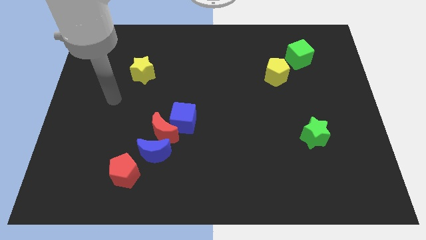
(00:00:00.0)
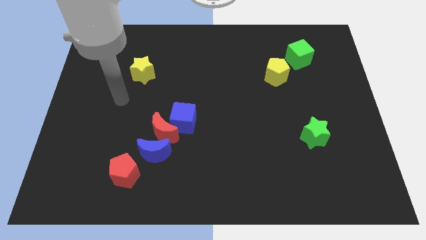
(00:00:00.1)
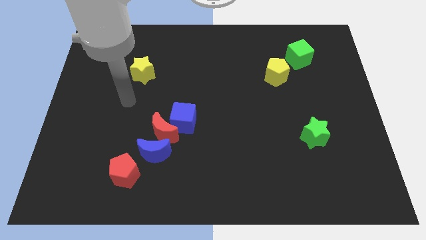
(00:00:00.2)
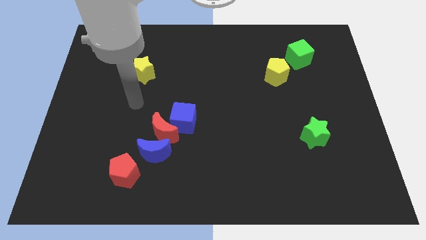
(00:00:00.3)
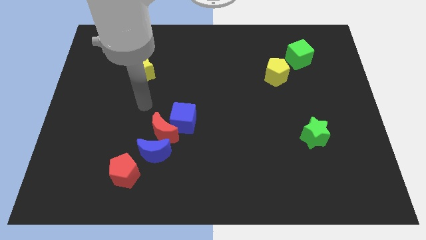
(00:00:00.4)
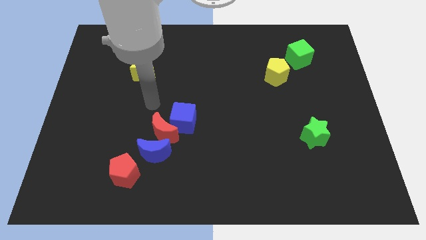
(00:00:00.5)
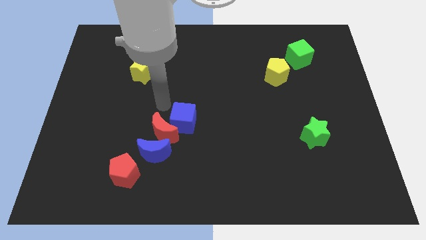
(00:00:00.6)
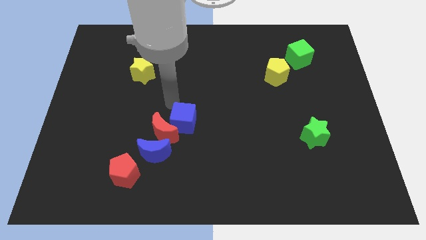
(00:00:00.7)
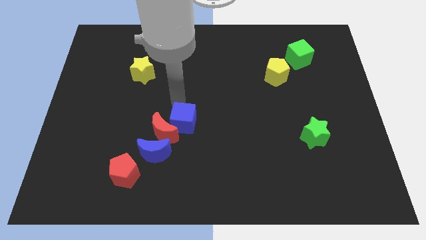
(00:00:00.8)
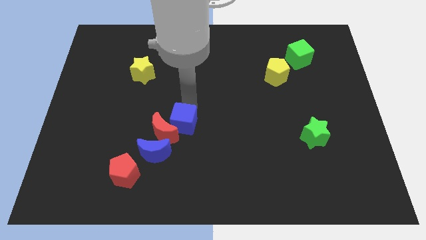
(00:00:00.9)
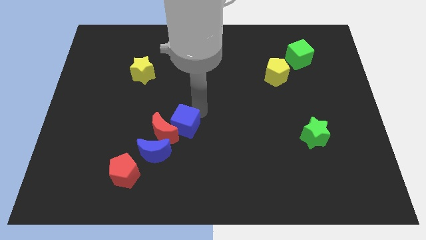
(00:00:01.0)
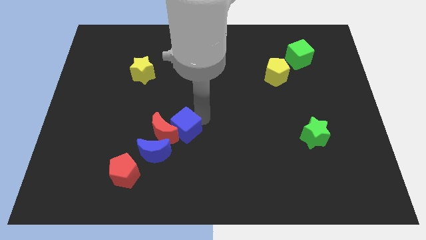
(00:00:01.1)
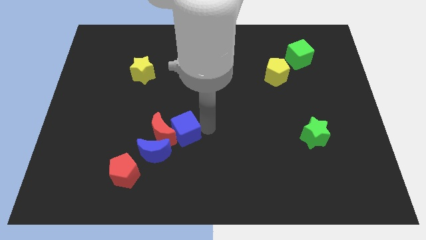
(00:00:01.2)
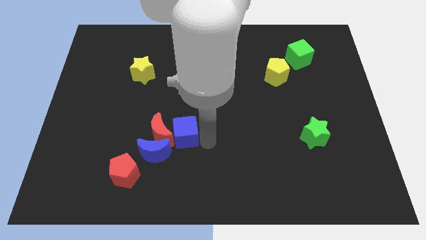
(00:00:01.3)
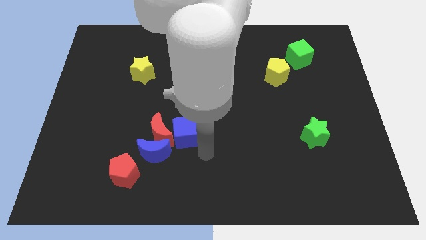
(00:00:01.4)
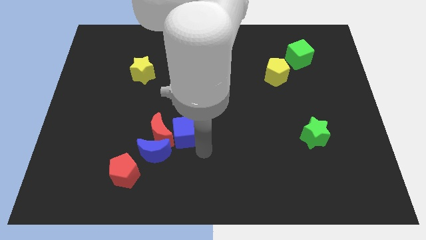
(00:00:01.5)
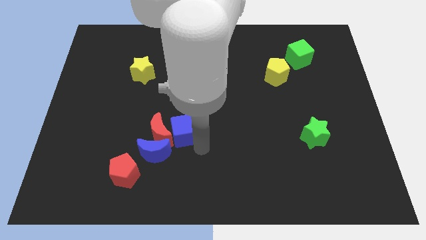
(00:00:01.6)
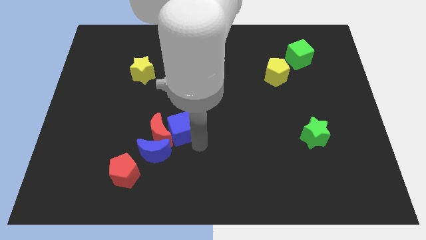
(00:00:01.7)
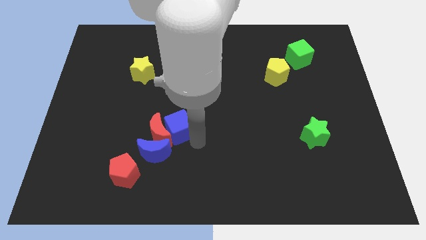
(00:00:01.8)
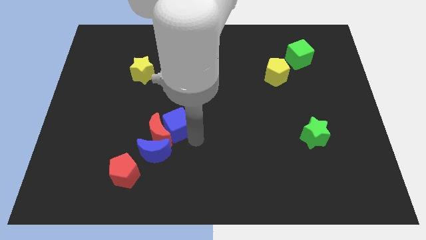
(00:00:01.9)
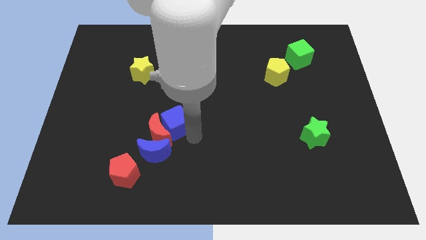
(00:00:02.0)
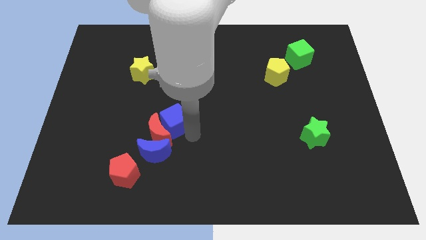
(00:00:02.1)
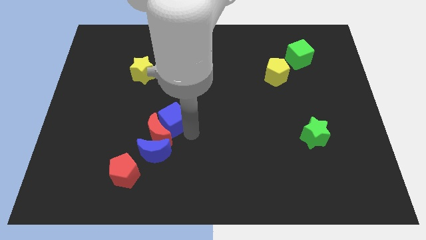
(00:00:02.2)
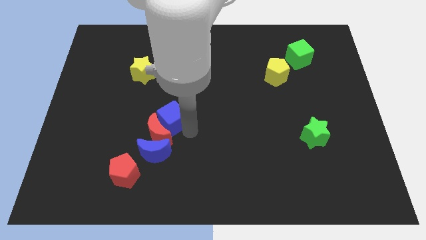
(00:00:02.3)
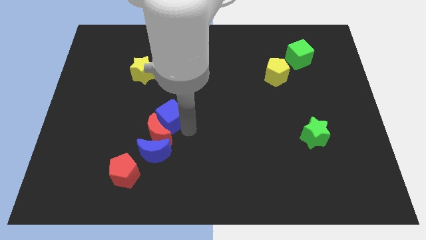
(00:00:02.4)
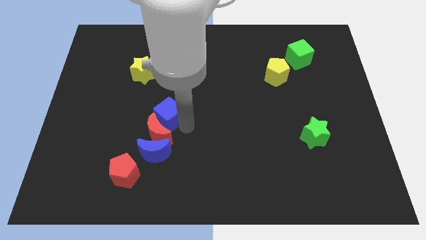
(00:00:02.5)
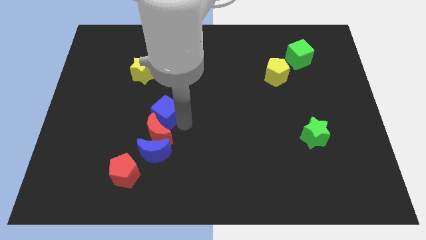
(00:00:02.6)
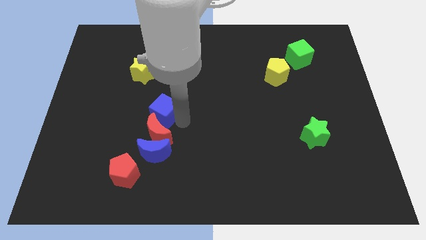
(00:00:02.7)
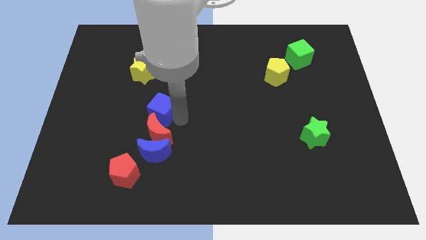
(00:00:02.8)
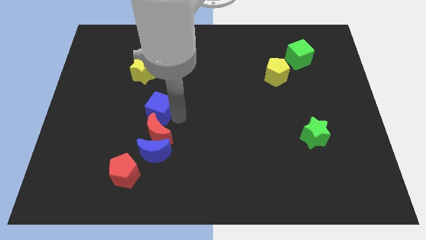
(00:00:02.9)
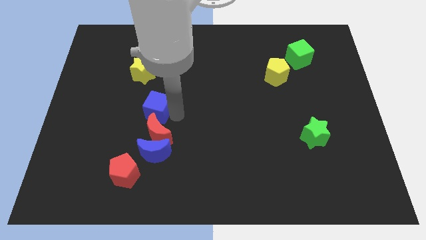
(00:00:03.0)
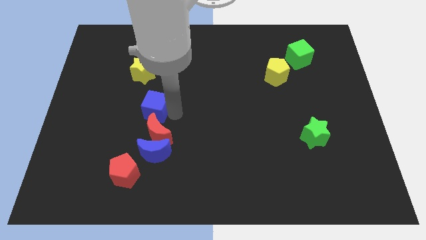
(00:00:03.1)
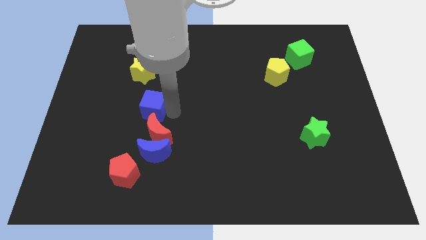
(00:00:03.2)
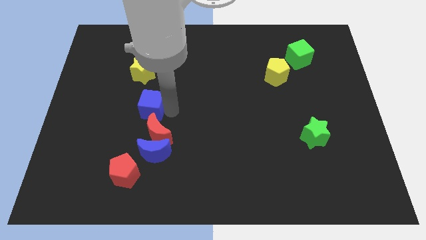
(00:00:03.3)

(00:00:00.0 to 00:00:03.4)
move the blue cube somewhat to the left

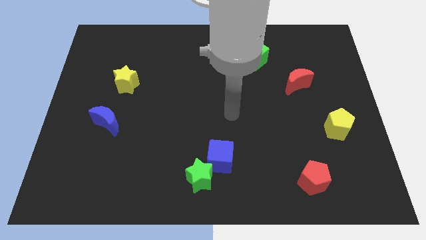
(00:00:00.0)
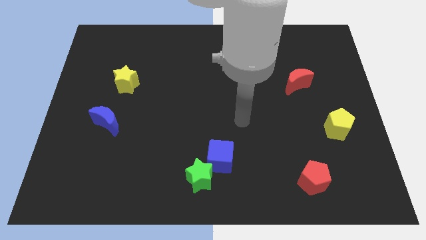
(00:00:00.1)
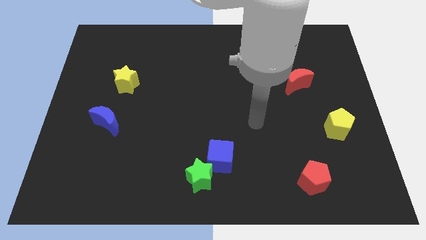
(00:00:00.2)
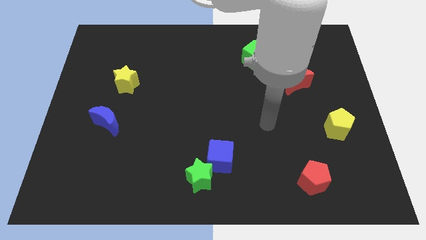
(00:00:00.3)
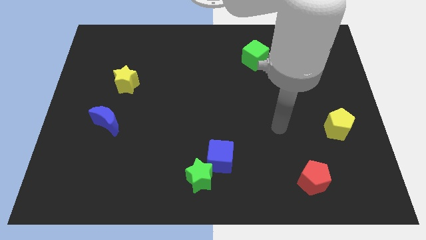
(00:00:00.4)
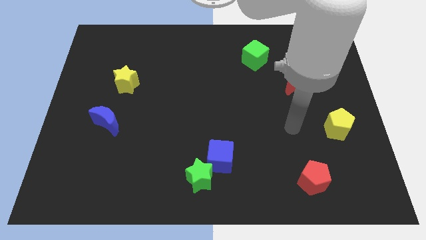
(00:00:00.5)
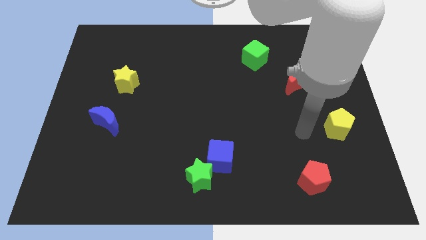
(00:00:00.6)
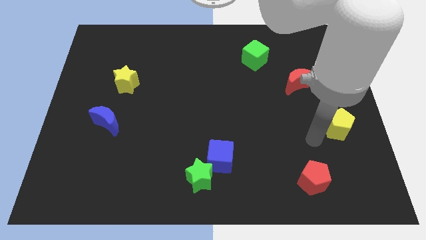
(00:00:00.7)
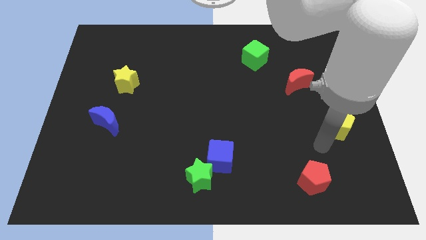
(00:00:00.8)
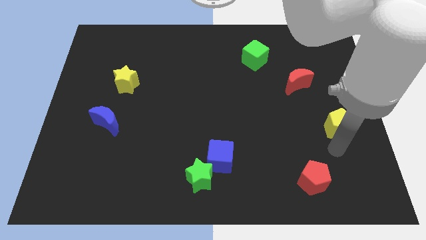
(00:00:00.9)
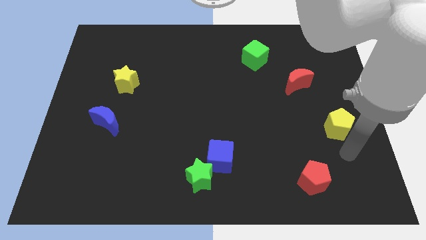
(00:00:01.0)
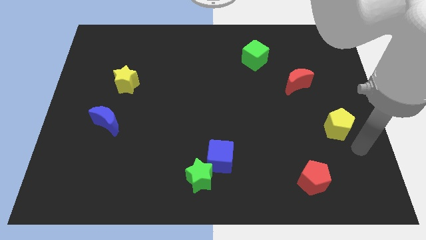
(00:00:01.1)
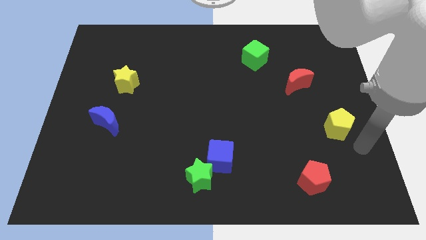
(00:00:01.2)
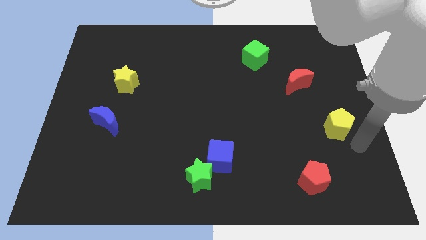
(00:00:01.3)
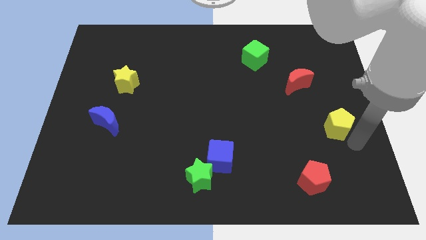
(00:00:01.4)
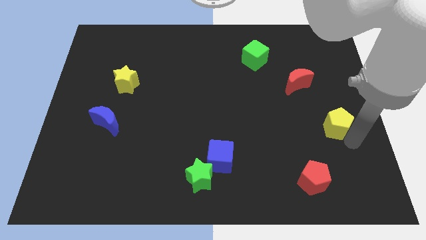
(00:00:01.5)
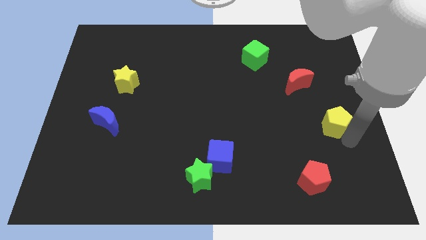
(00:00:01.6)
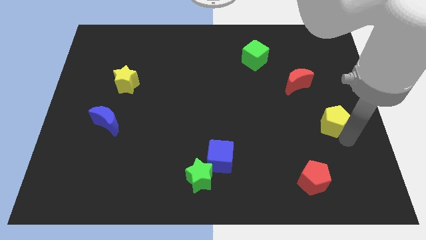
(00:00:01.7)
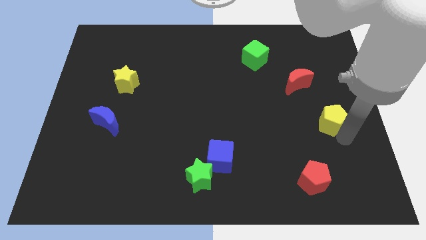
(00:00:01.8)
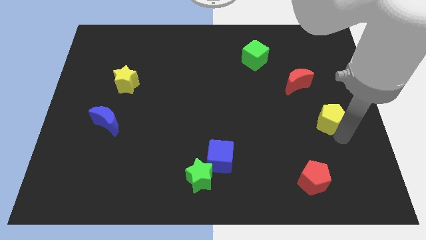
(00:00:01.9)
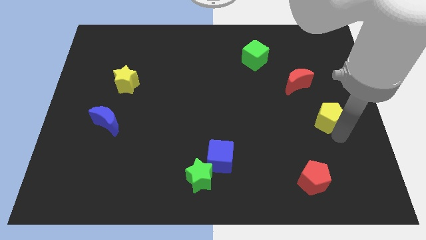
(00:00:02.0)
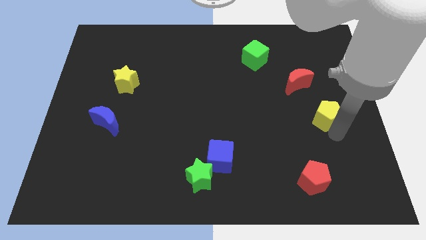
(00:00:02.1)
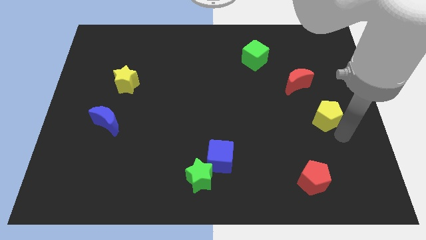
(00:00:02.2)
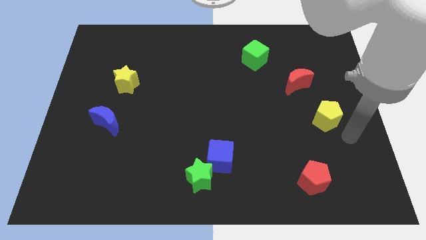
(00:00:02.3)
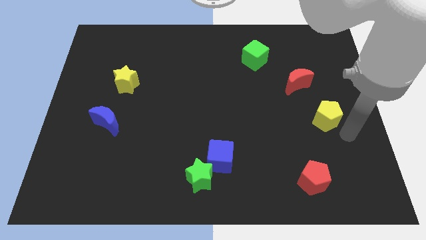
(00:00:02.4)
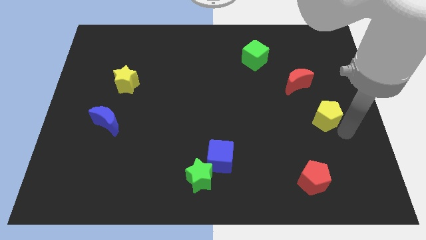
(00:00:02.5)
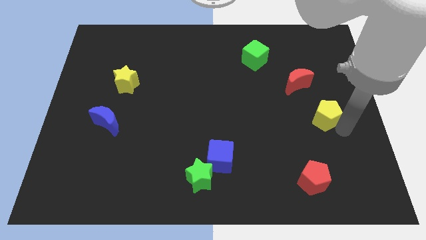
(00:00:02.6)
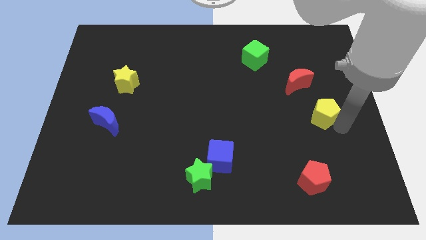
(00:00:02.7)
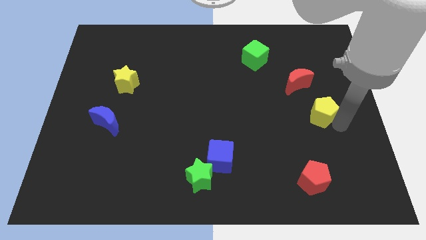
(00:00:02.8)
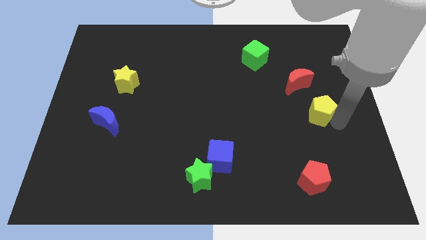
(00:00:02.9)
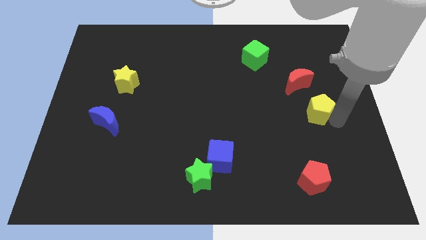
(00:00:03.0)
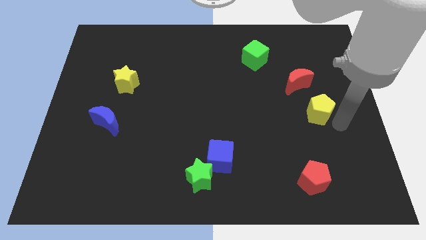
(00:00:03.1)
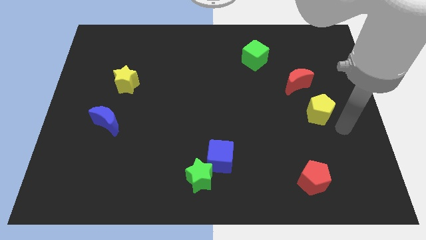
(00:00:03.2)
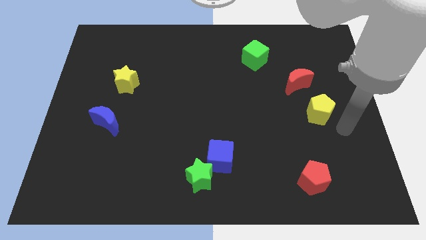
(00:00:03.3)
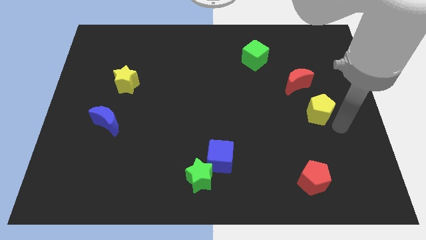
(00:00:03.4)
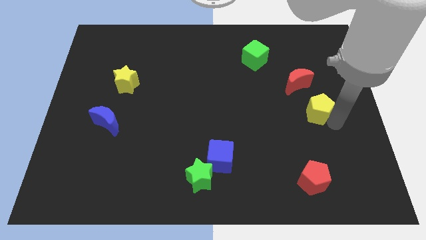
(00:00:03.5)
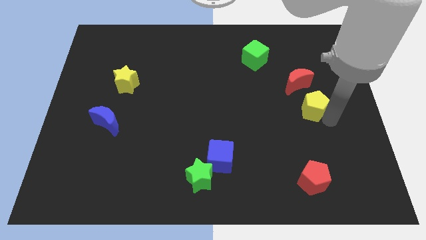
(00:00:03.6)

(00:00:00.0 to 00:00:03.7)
push the yellow pentagon diagonally up and left a little

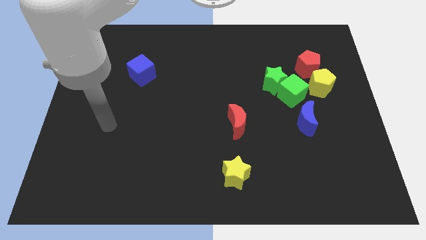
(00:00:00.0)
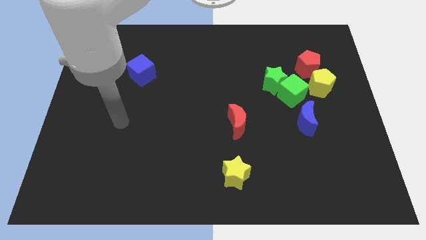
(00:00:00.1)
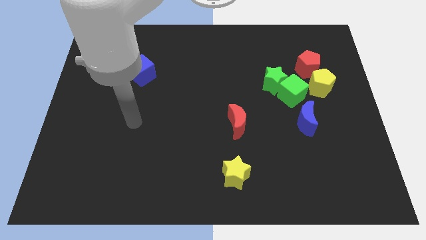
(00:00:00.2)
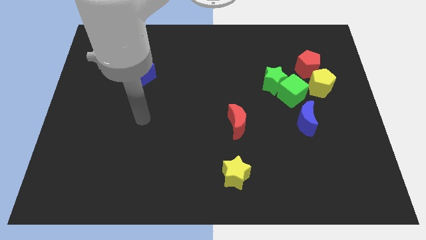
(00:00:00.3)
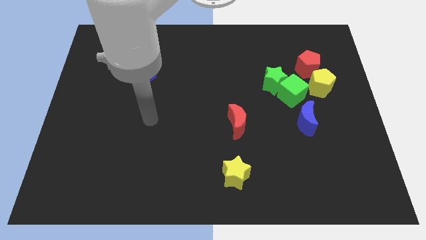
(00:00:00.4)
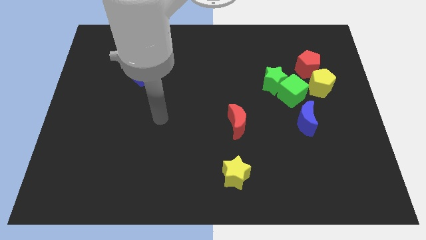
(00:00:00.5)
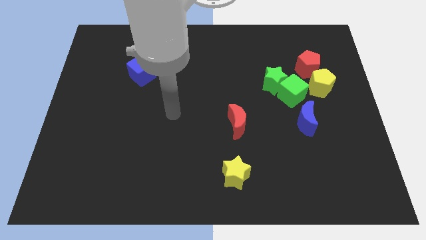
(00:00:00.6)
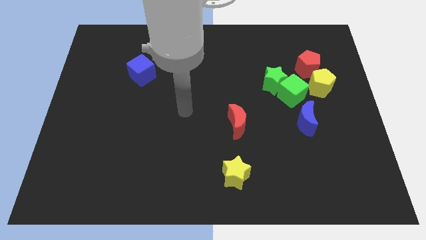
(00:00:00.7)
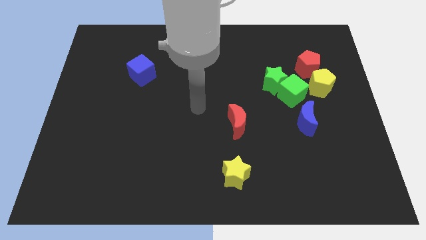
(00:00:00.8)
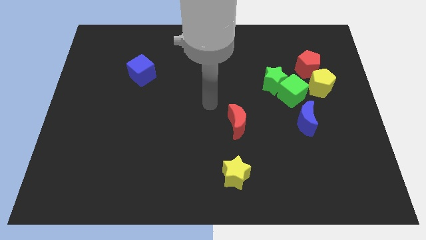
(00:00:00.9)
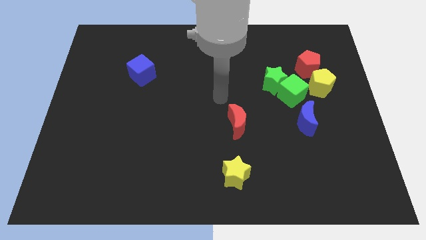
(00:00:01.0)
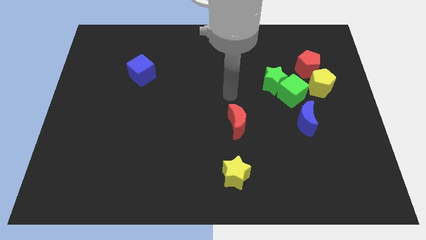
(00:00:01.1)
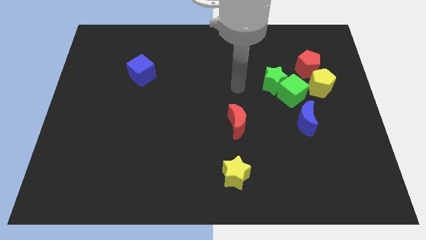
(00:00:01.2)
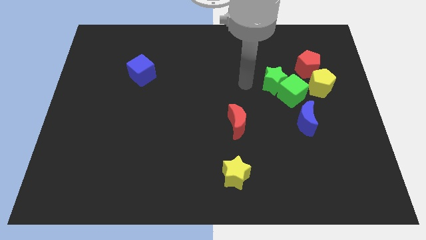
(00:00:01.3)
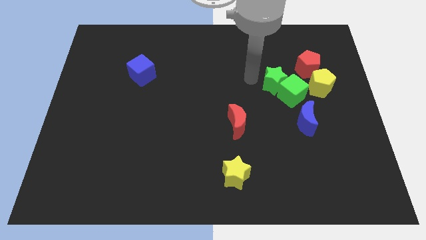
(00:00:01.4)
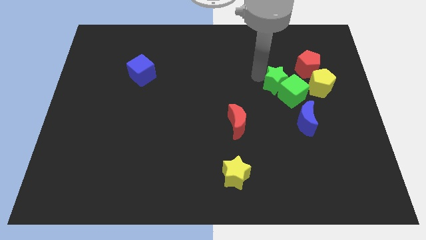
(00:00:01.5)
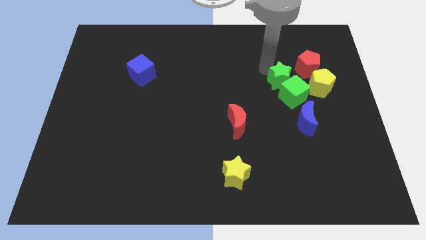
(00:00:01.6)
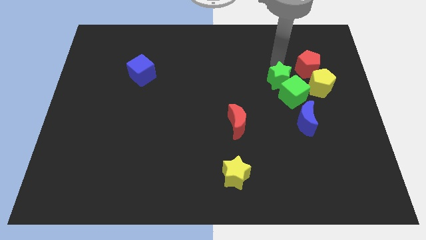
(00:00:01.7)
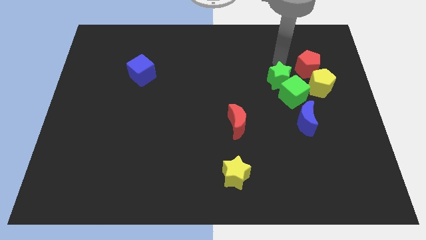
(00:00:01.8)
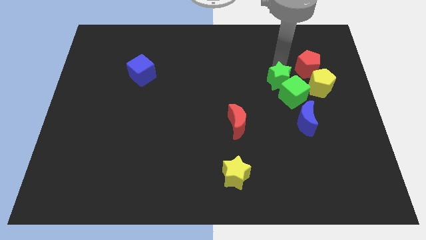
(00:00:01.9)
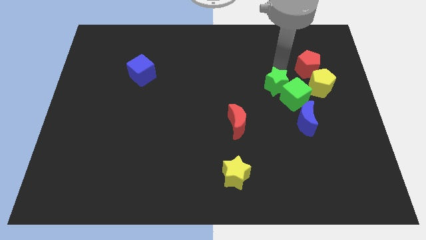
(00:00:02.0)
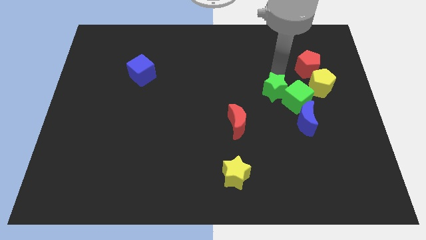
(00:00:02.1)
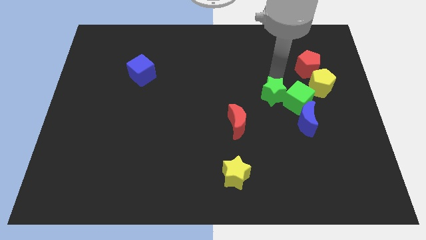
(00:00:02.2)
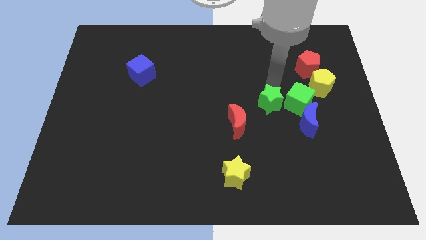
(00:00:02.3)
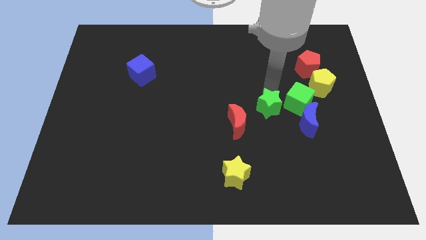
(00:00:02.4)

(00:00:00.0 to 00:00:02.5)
slightly push the green star downwards
